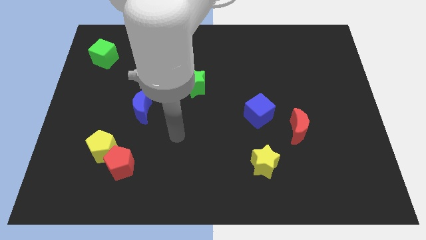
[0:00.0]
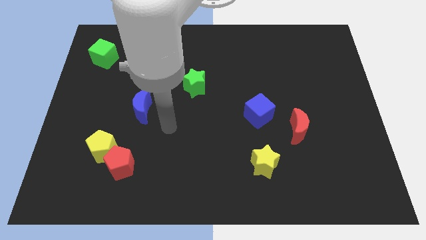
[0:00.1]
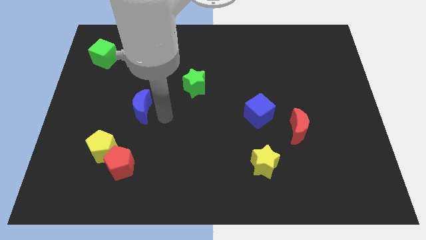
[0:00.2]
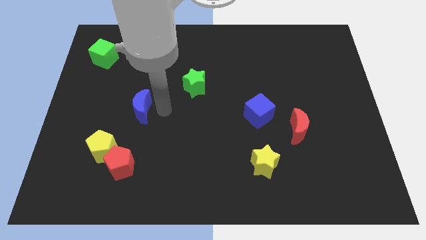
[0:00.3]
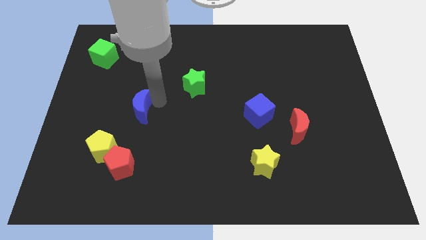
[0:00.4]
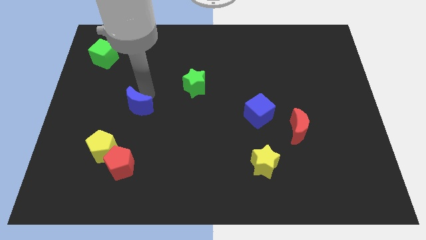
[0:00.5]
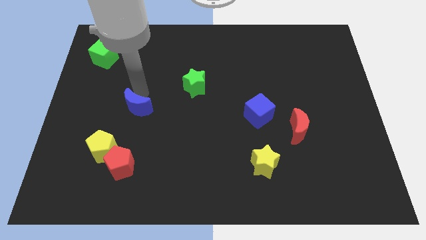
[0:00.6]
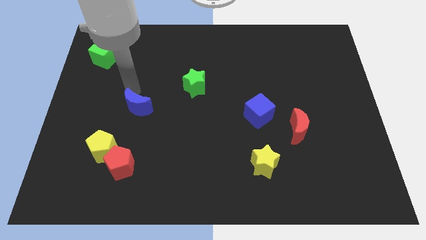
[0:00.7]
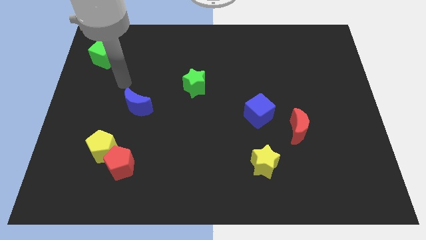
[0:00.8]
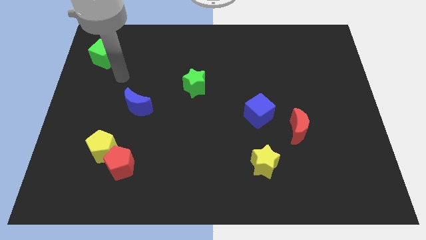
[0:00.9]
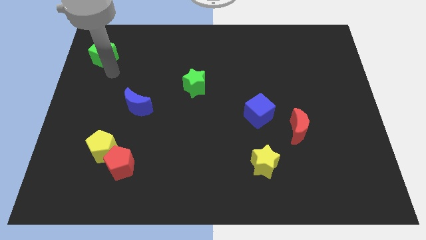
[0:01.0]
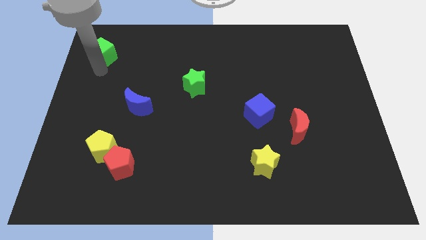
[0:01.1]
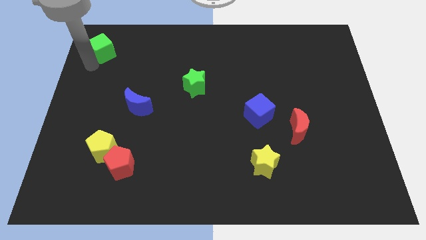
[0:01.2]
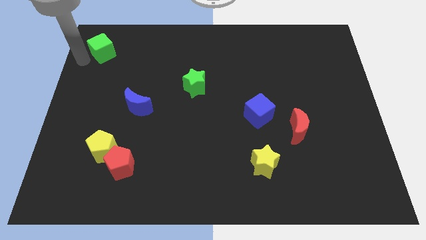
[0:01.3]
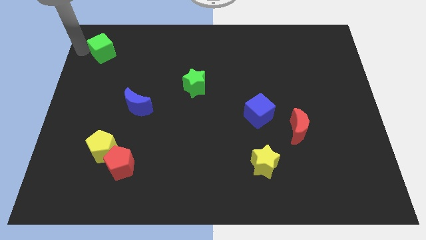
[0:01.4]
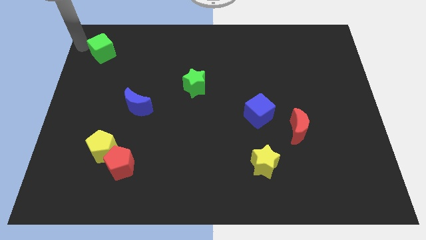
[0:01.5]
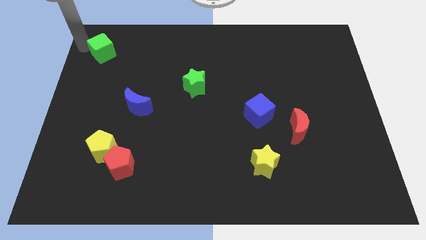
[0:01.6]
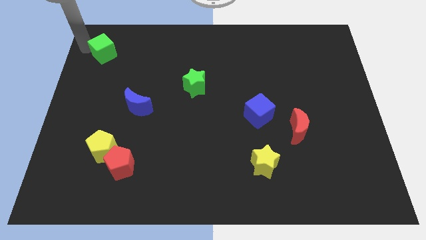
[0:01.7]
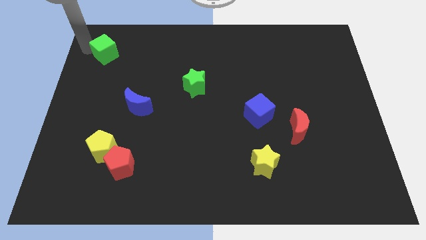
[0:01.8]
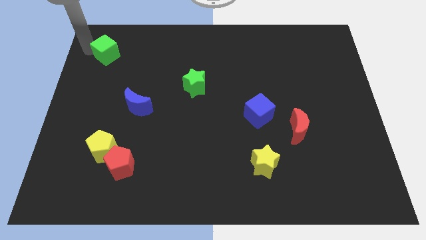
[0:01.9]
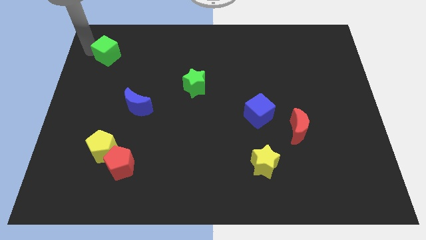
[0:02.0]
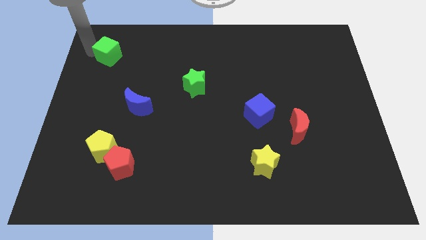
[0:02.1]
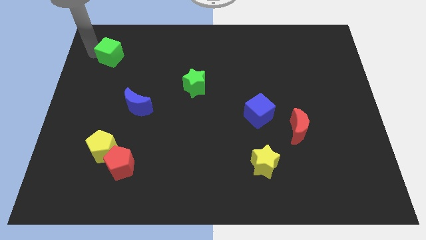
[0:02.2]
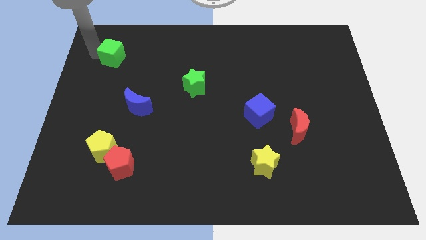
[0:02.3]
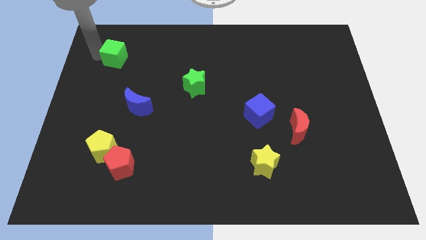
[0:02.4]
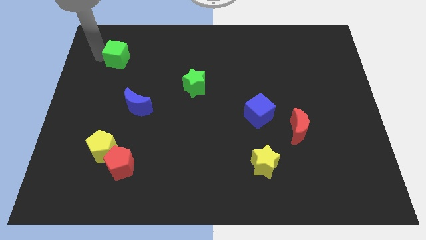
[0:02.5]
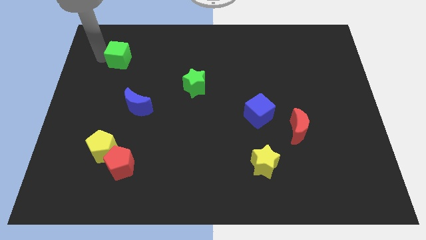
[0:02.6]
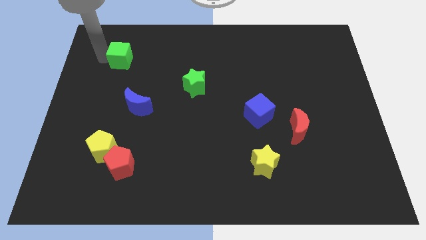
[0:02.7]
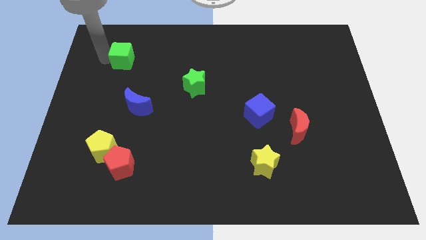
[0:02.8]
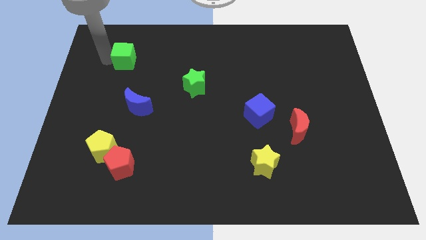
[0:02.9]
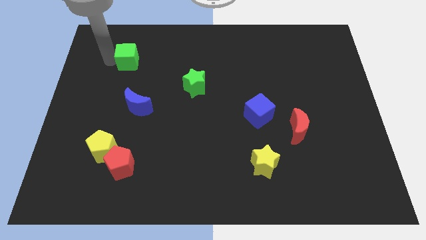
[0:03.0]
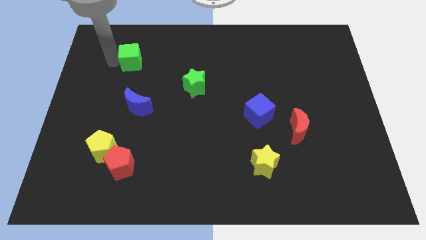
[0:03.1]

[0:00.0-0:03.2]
slide the green cube a little bit to the right

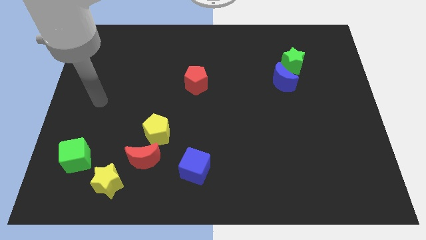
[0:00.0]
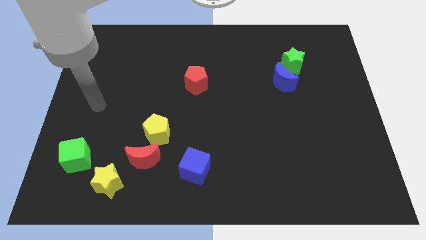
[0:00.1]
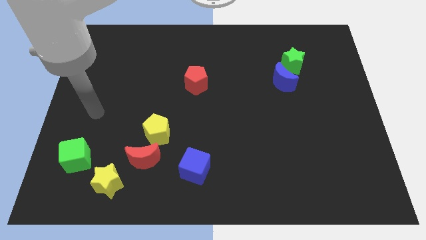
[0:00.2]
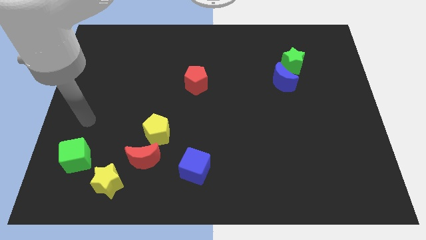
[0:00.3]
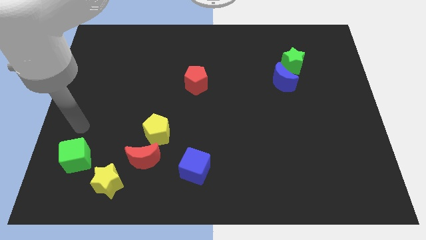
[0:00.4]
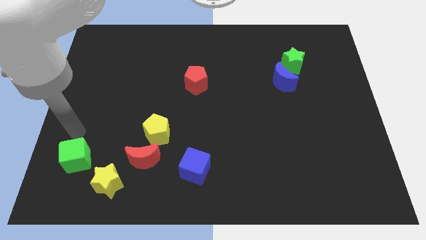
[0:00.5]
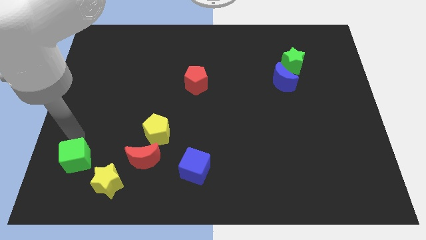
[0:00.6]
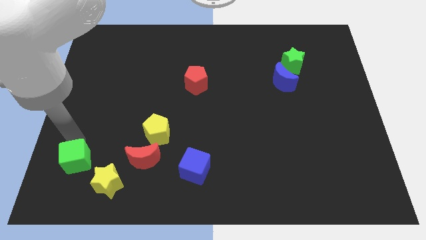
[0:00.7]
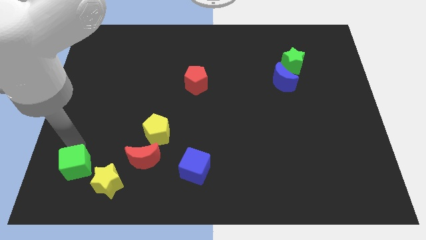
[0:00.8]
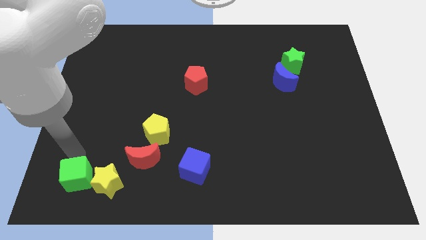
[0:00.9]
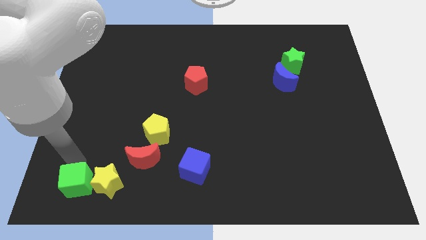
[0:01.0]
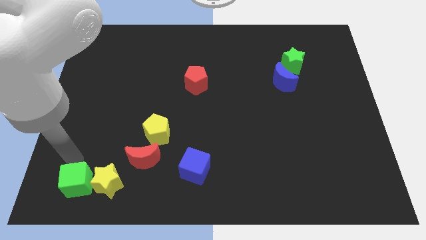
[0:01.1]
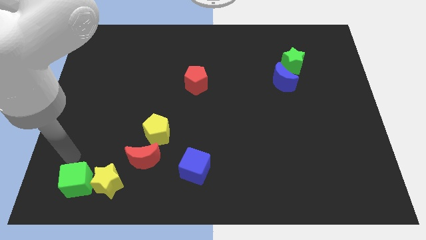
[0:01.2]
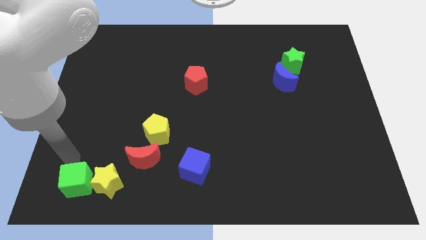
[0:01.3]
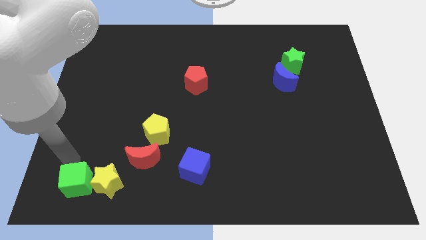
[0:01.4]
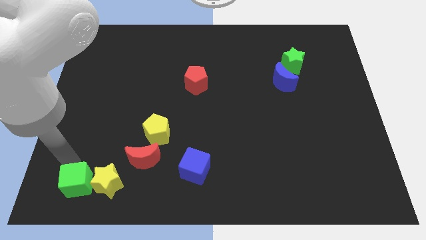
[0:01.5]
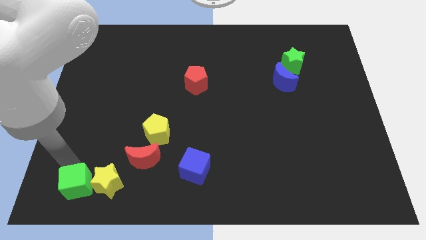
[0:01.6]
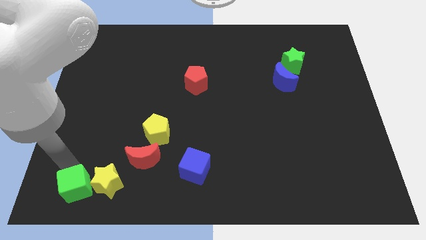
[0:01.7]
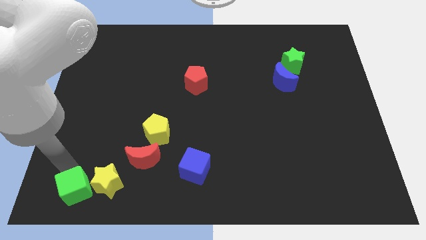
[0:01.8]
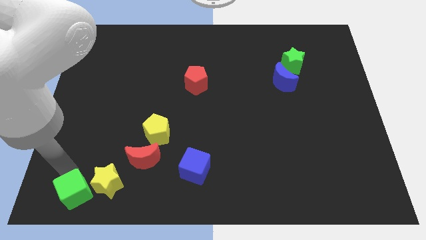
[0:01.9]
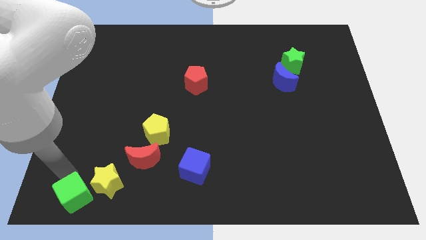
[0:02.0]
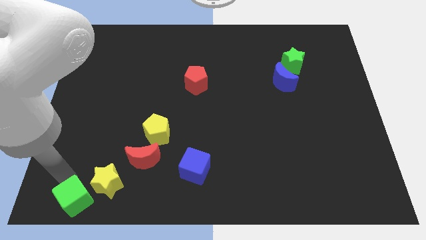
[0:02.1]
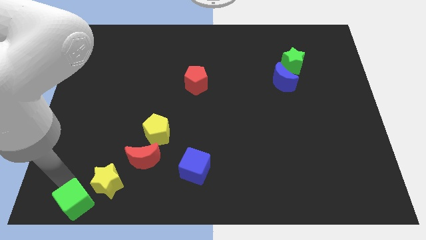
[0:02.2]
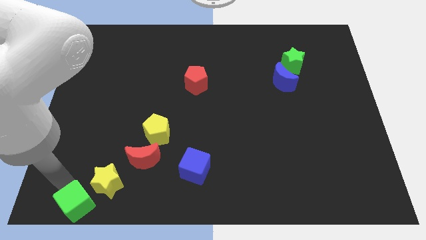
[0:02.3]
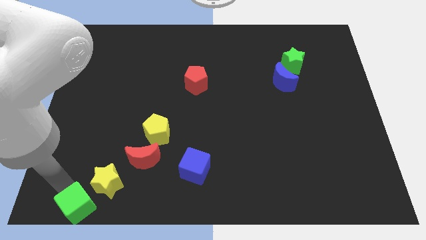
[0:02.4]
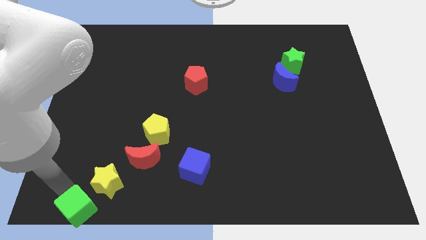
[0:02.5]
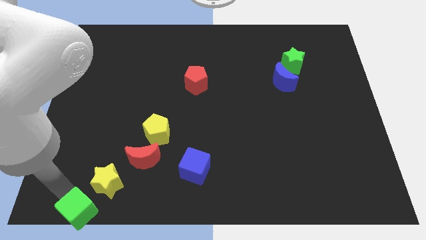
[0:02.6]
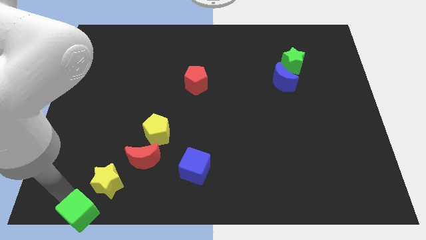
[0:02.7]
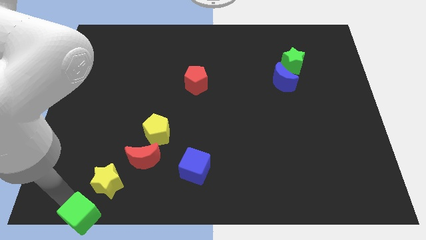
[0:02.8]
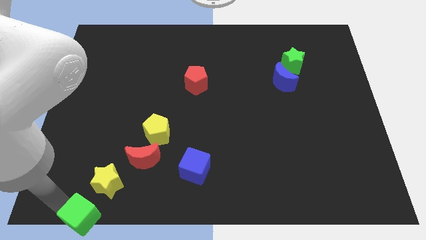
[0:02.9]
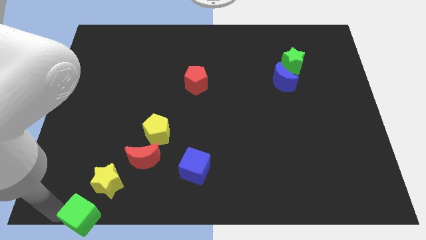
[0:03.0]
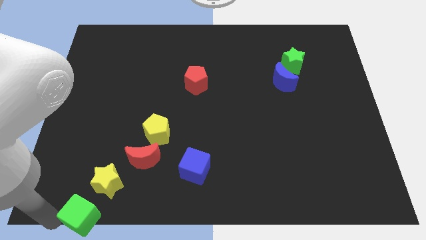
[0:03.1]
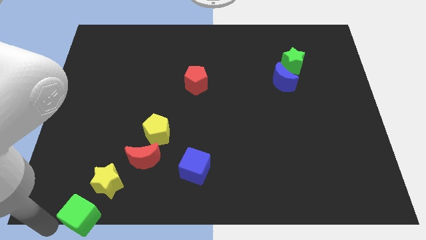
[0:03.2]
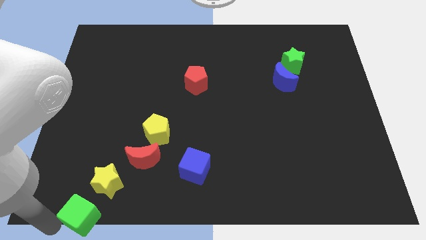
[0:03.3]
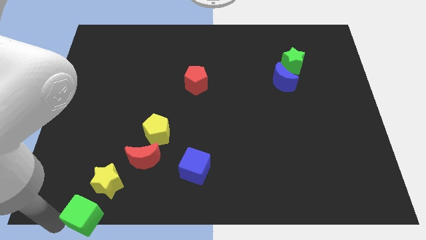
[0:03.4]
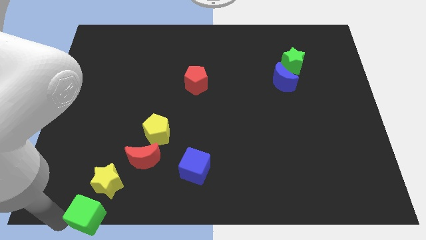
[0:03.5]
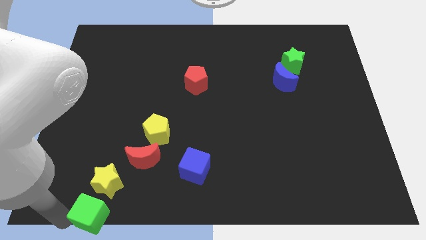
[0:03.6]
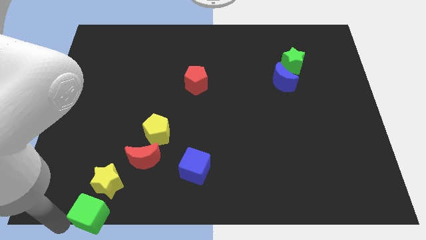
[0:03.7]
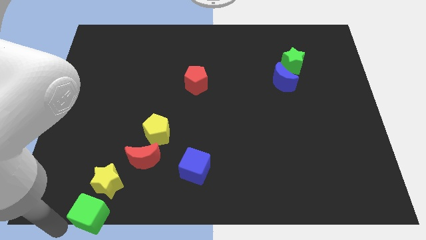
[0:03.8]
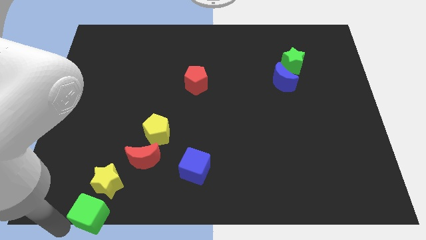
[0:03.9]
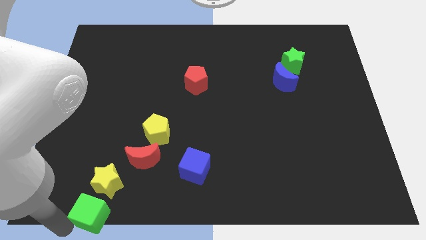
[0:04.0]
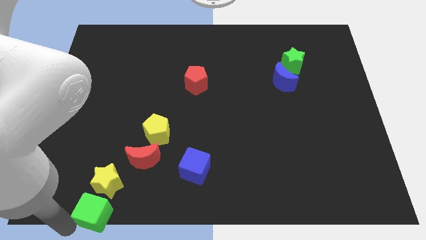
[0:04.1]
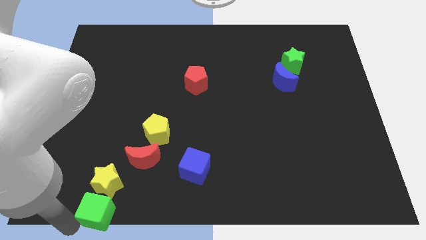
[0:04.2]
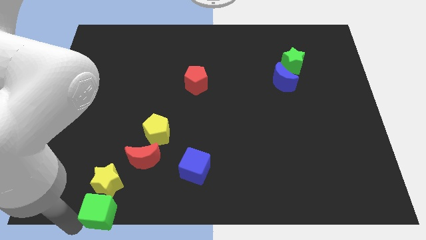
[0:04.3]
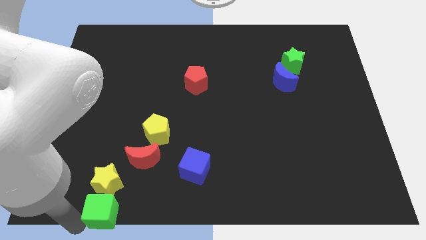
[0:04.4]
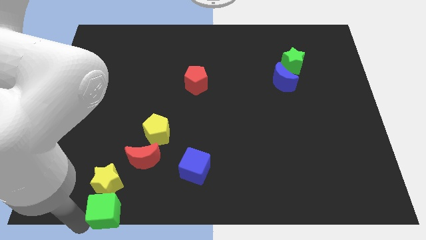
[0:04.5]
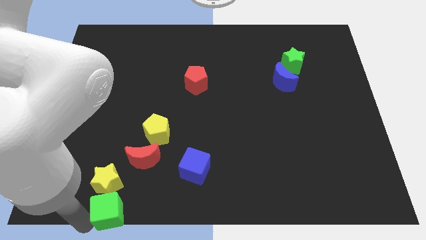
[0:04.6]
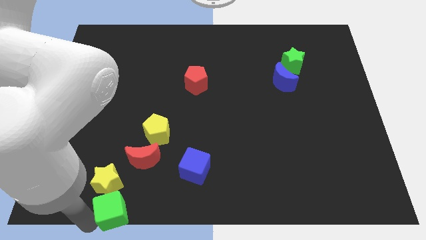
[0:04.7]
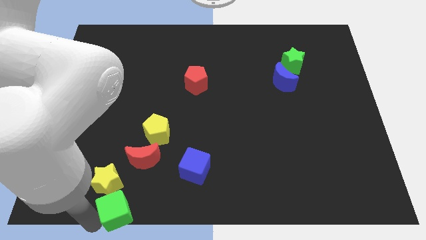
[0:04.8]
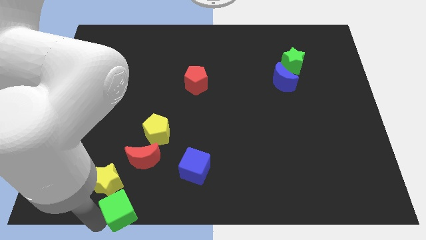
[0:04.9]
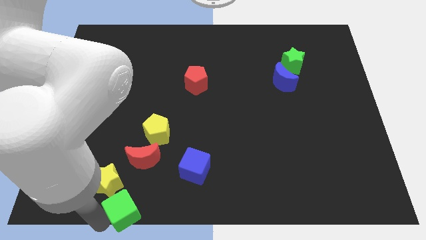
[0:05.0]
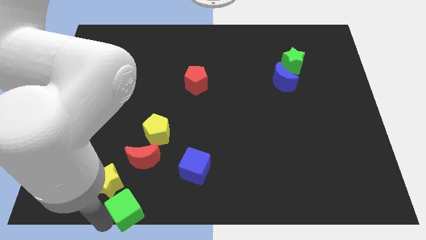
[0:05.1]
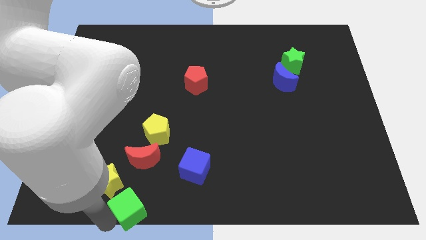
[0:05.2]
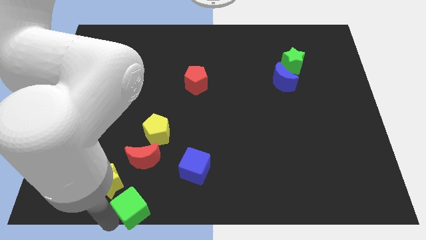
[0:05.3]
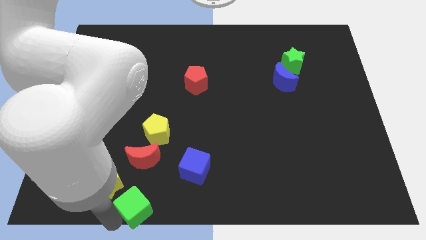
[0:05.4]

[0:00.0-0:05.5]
slide the green cube to the right a little
